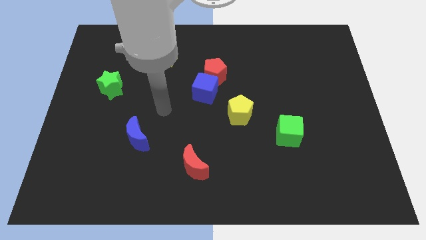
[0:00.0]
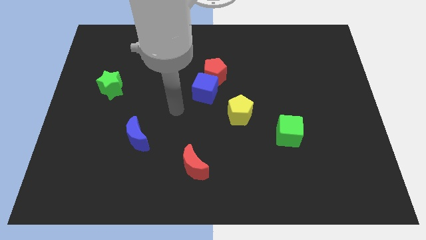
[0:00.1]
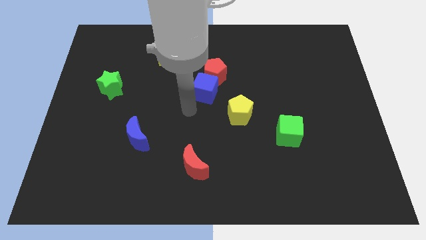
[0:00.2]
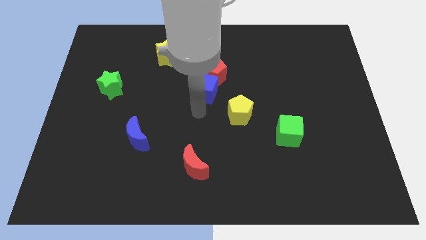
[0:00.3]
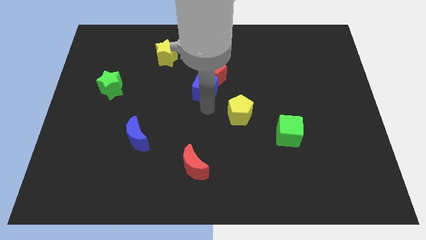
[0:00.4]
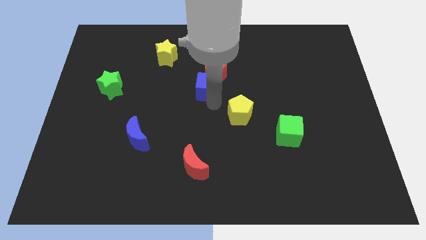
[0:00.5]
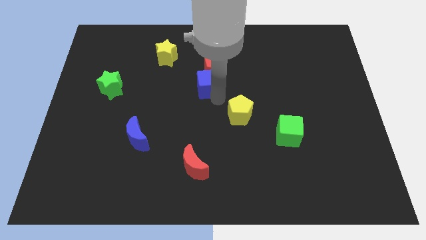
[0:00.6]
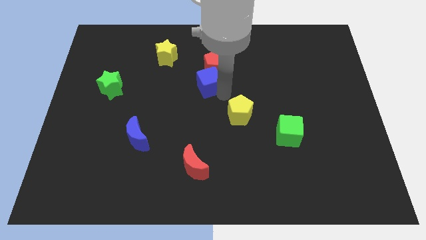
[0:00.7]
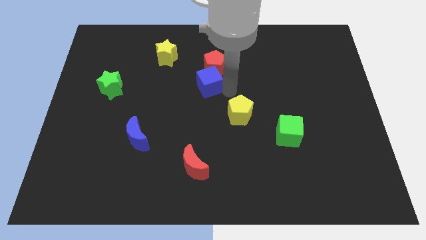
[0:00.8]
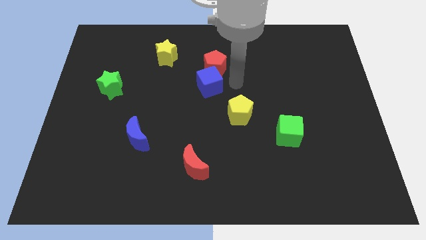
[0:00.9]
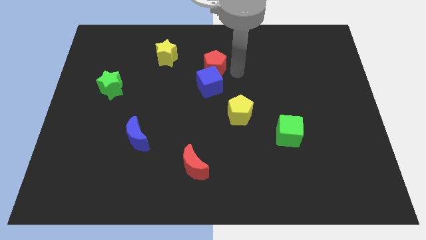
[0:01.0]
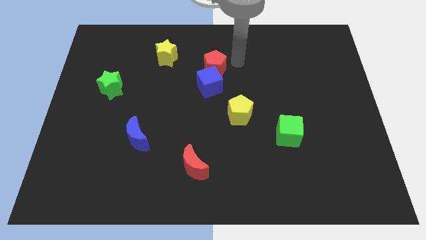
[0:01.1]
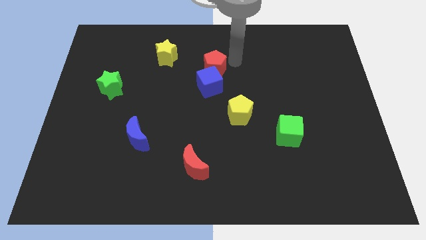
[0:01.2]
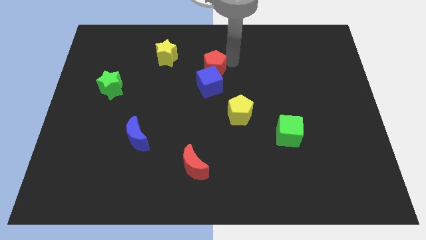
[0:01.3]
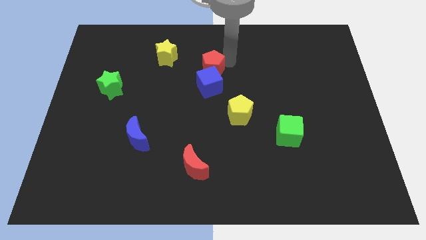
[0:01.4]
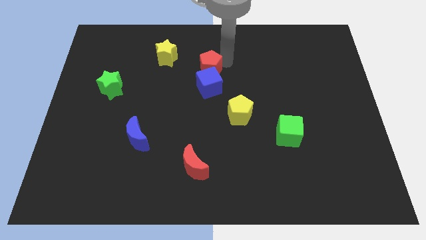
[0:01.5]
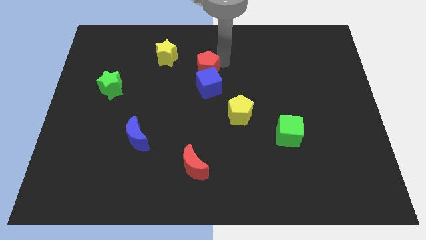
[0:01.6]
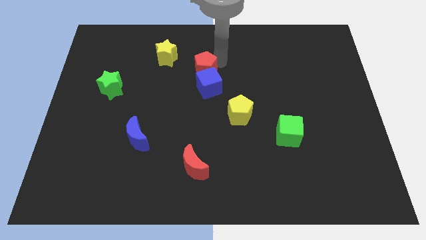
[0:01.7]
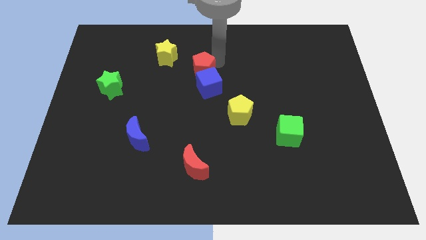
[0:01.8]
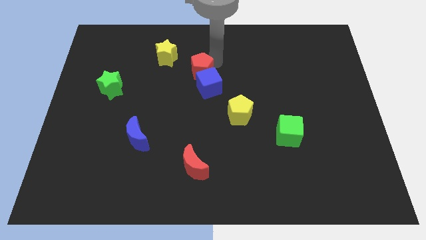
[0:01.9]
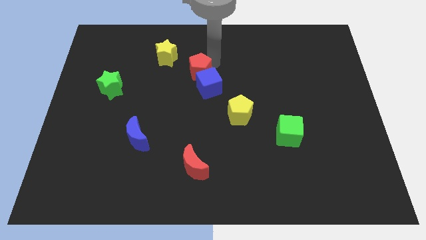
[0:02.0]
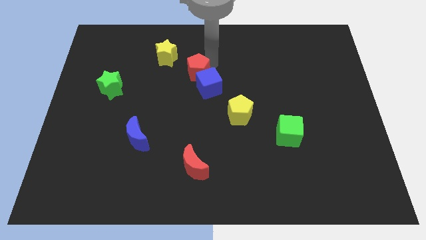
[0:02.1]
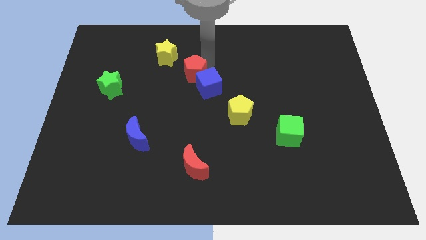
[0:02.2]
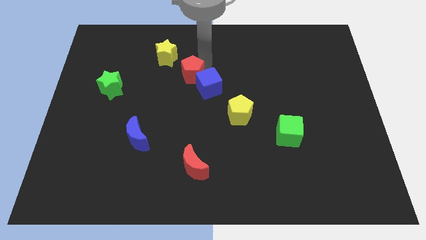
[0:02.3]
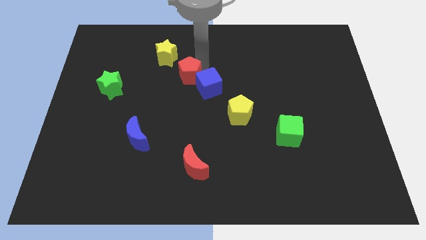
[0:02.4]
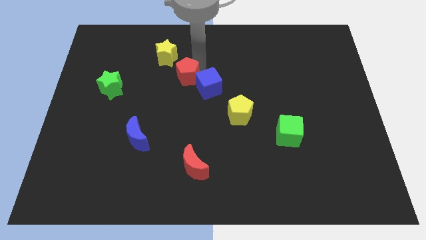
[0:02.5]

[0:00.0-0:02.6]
slightly move the red pentagon to the left

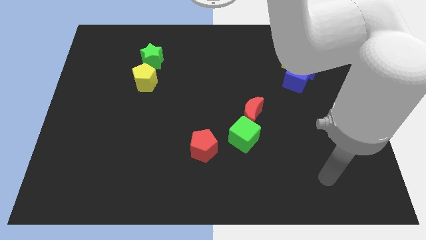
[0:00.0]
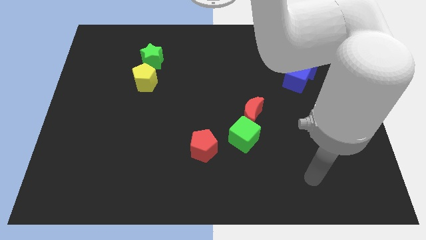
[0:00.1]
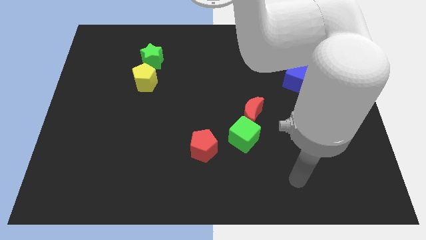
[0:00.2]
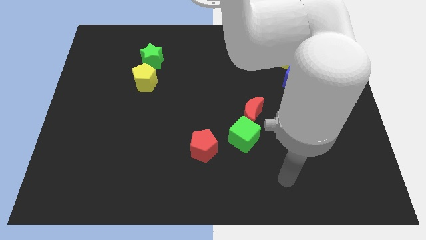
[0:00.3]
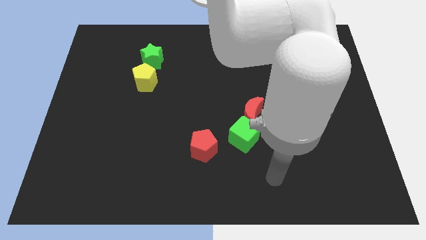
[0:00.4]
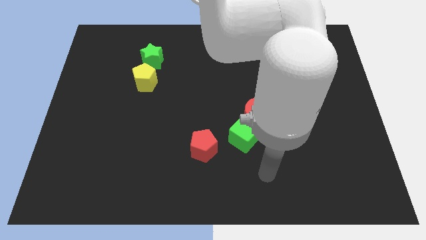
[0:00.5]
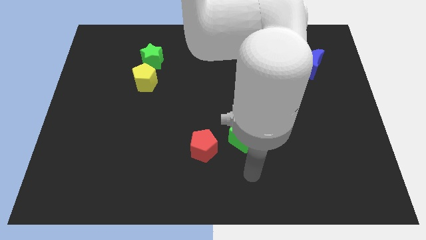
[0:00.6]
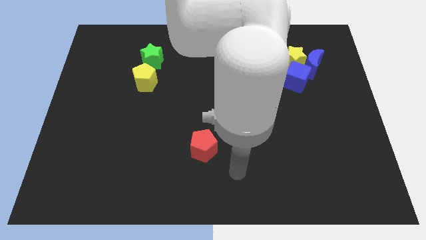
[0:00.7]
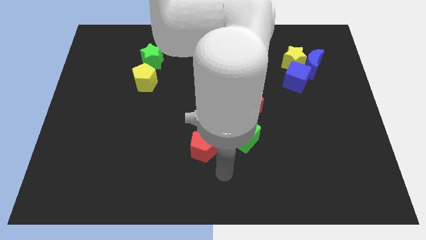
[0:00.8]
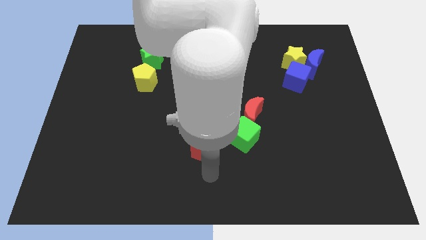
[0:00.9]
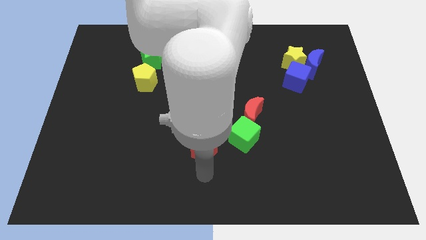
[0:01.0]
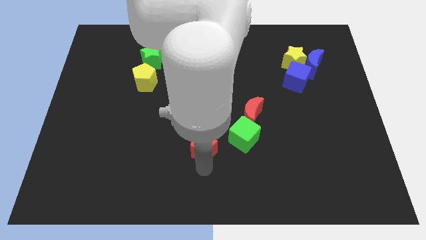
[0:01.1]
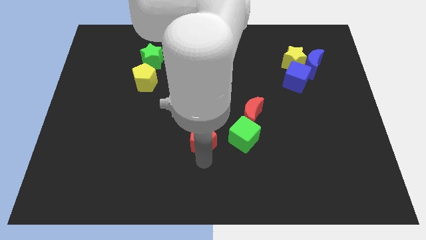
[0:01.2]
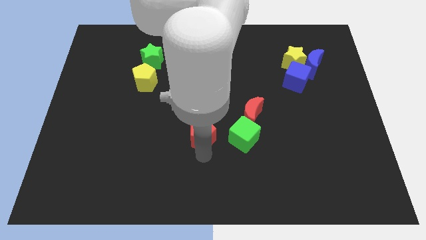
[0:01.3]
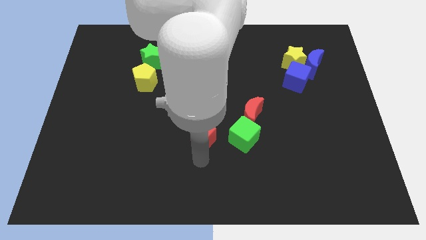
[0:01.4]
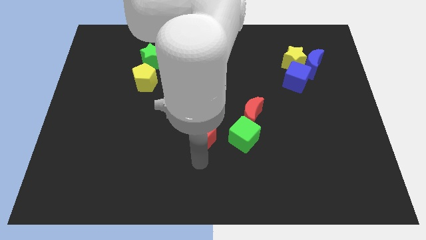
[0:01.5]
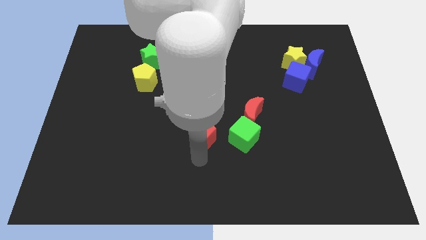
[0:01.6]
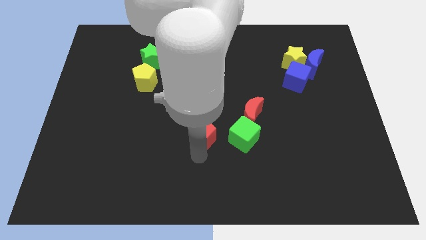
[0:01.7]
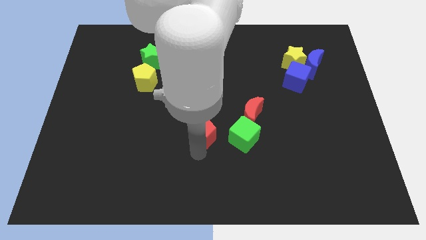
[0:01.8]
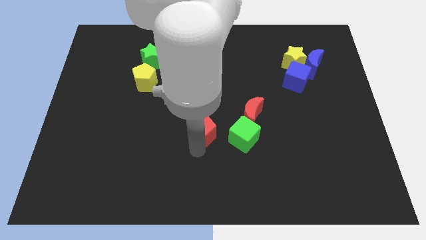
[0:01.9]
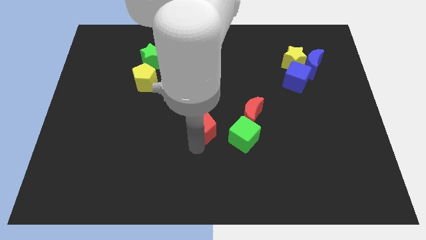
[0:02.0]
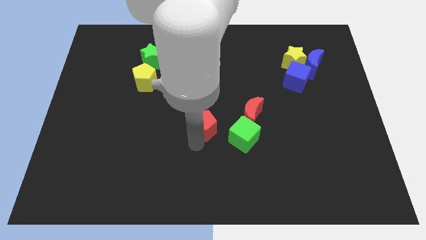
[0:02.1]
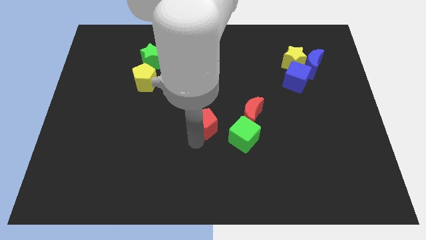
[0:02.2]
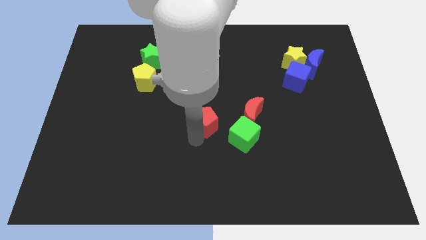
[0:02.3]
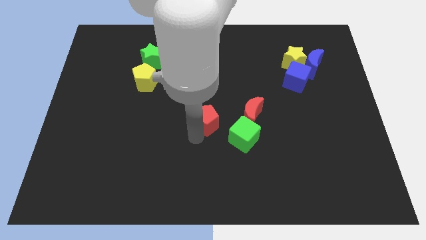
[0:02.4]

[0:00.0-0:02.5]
move the red pentagon up slightly

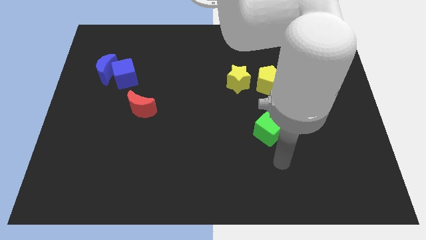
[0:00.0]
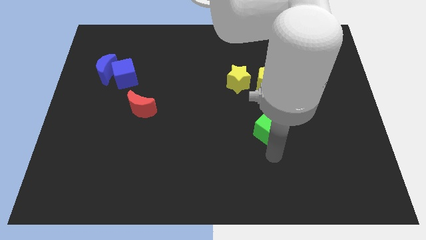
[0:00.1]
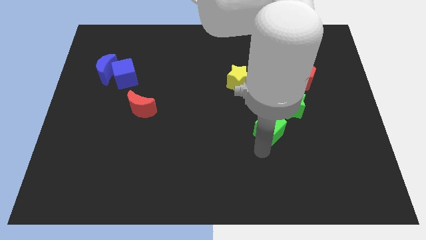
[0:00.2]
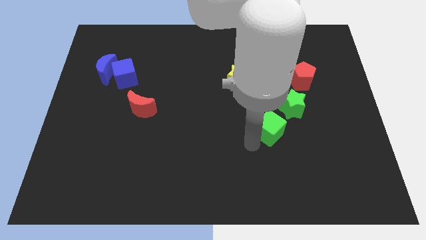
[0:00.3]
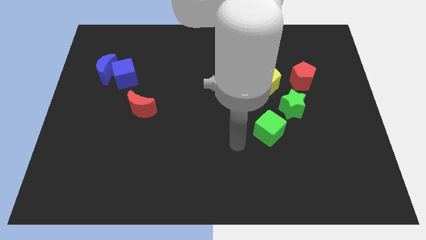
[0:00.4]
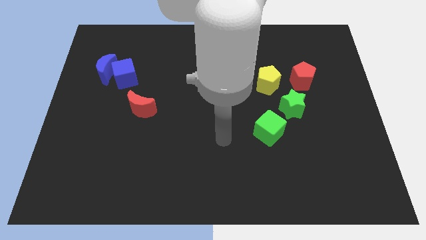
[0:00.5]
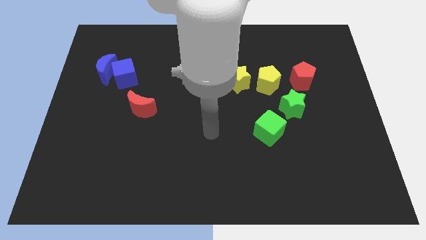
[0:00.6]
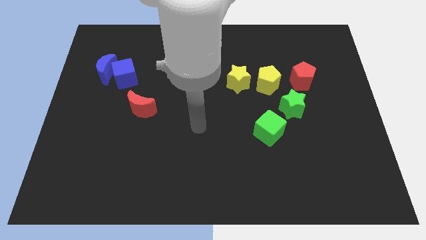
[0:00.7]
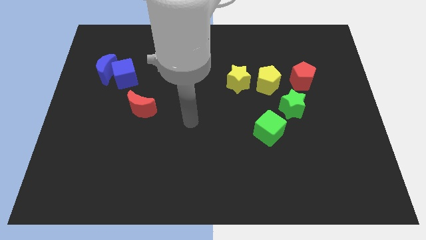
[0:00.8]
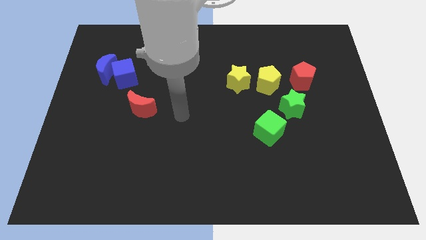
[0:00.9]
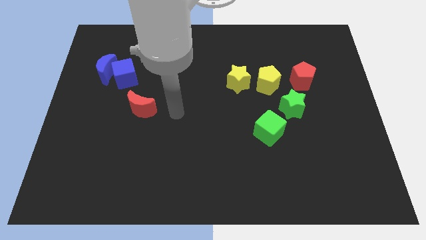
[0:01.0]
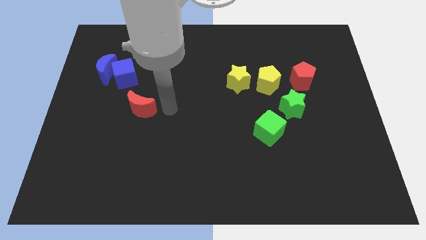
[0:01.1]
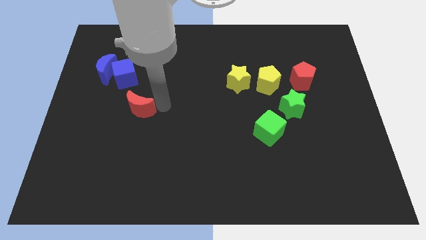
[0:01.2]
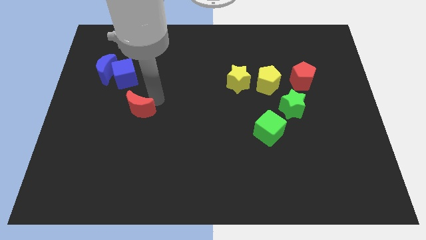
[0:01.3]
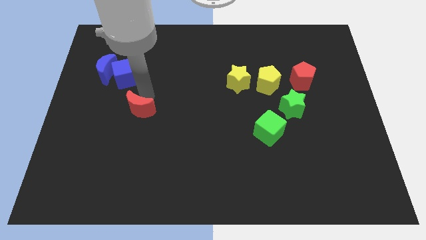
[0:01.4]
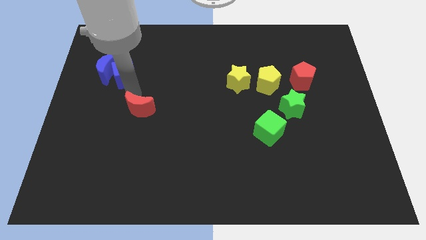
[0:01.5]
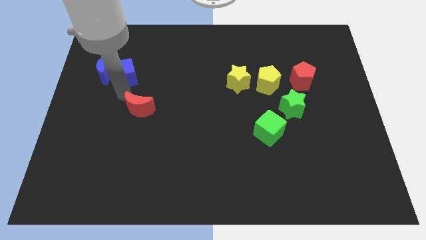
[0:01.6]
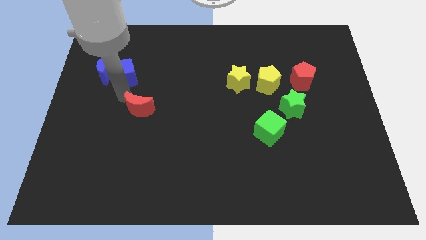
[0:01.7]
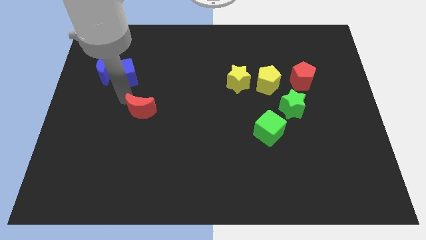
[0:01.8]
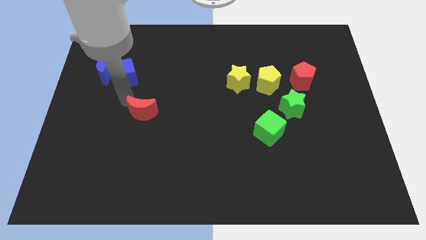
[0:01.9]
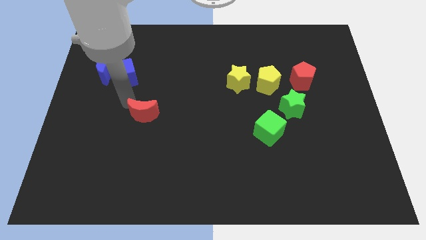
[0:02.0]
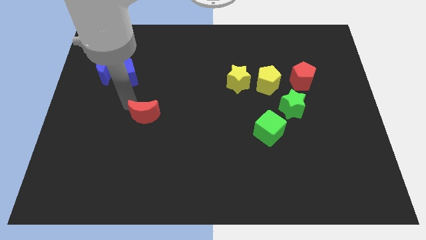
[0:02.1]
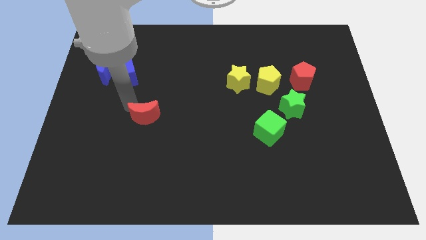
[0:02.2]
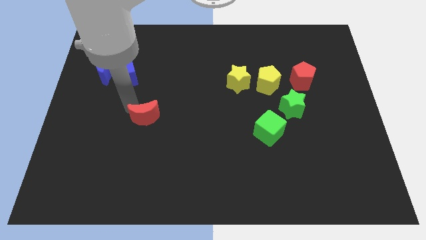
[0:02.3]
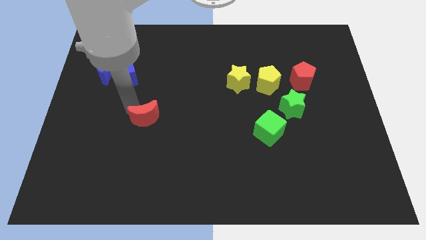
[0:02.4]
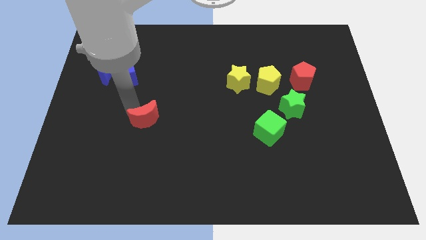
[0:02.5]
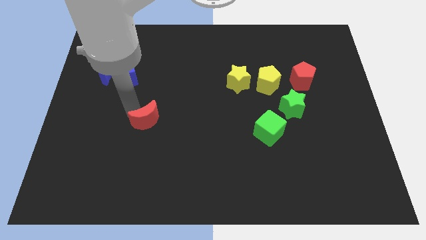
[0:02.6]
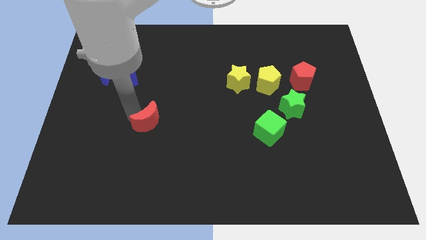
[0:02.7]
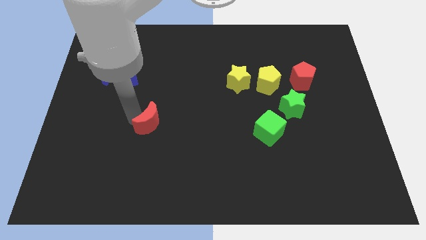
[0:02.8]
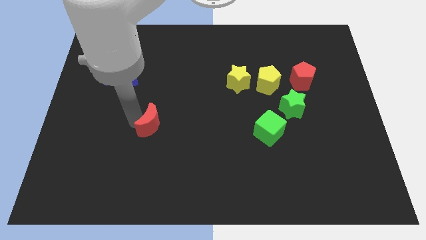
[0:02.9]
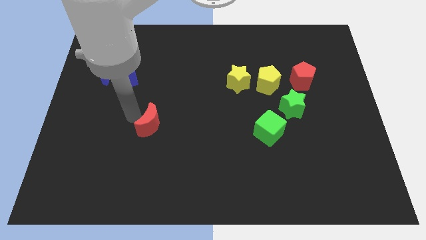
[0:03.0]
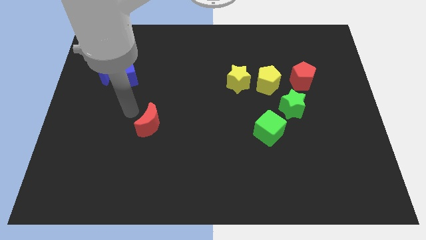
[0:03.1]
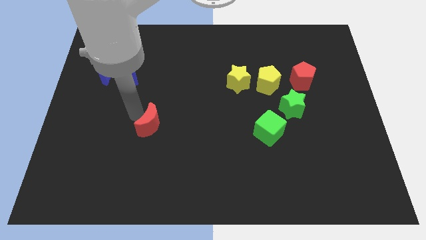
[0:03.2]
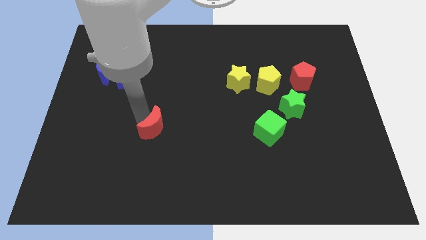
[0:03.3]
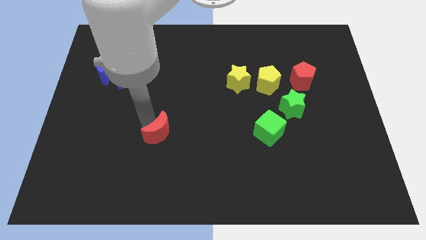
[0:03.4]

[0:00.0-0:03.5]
slide the red moon a little down and then right
